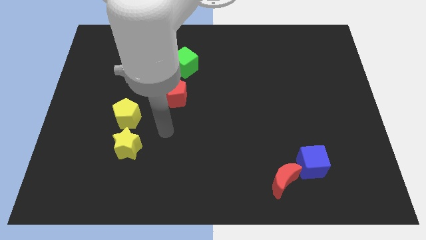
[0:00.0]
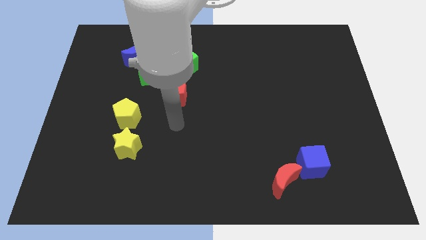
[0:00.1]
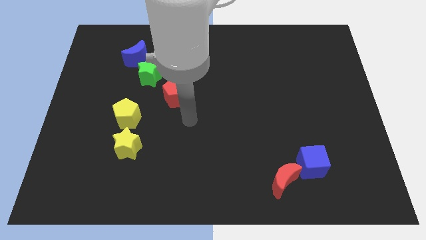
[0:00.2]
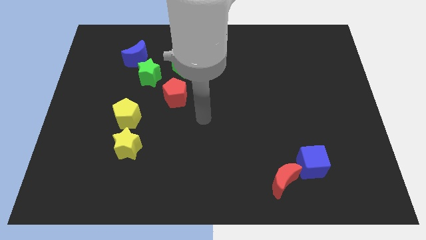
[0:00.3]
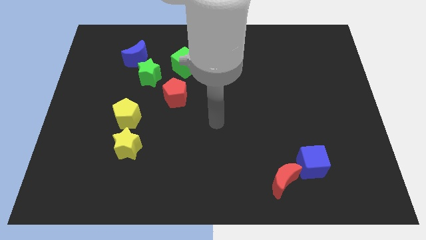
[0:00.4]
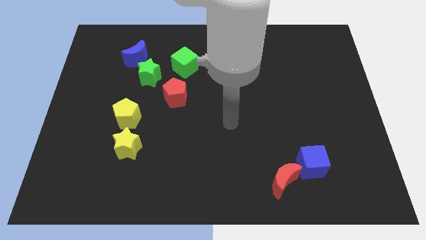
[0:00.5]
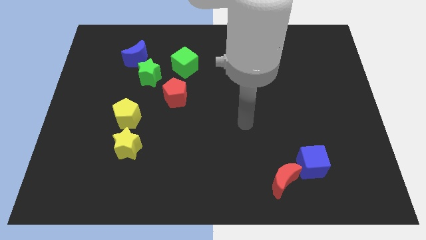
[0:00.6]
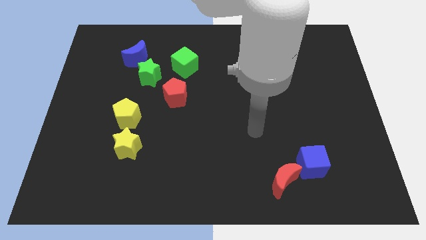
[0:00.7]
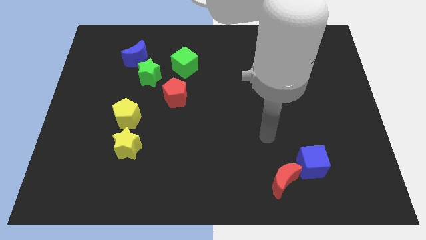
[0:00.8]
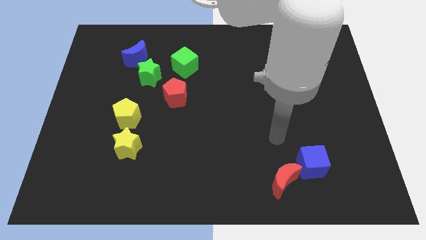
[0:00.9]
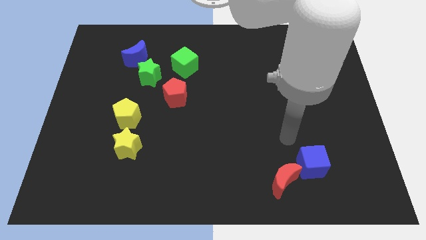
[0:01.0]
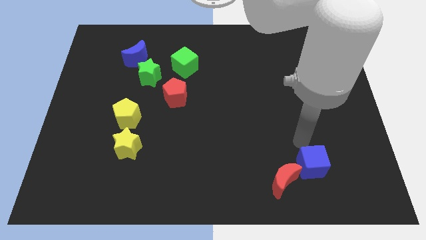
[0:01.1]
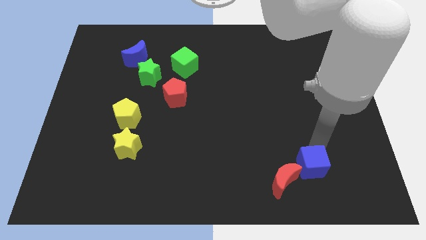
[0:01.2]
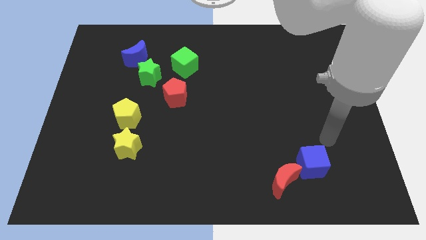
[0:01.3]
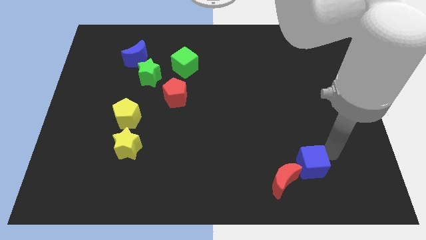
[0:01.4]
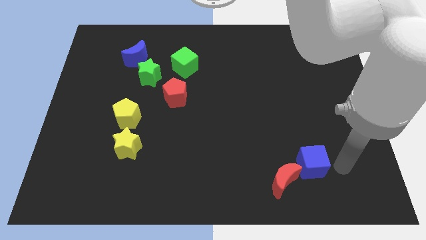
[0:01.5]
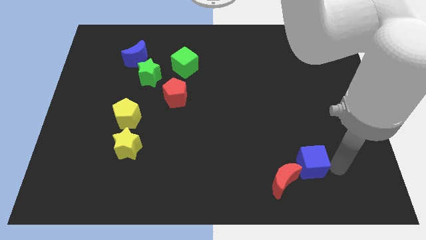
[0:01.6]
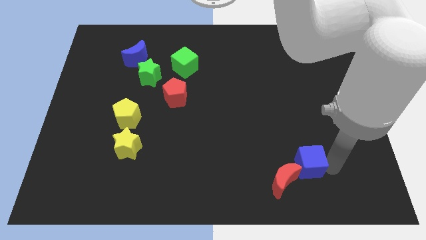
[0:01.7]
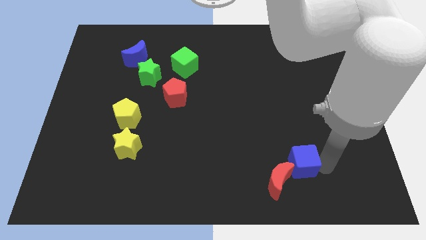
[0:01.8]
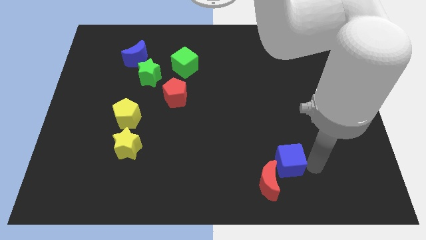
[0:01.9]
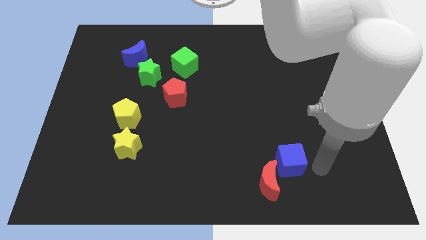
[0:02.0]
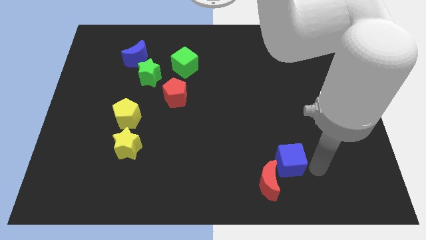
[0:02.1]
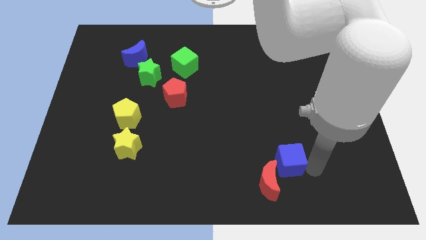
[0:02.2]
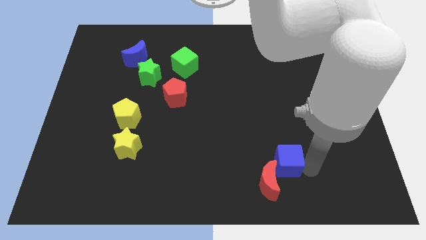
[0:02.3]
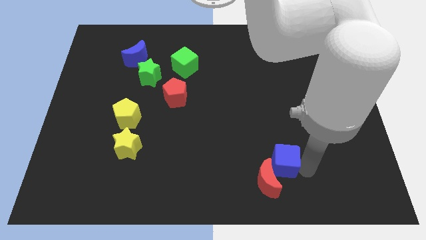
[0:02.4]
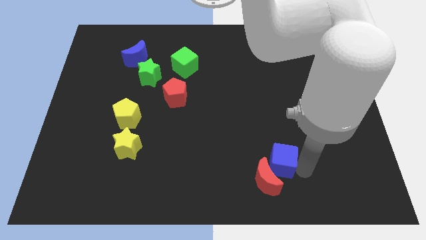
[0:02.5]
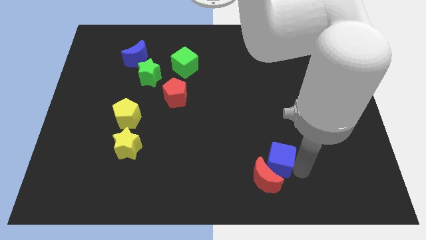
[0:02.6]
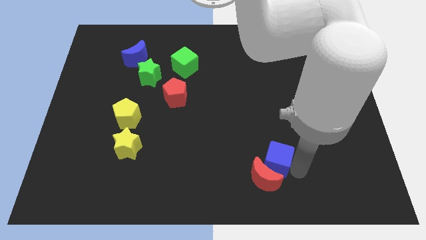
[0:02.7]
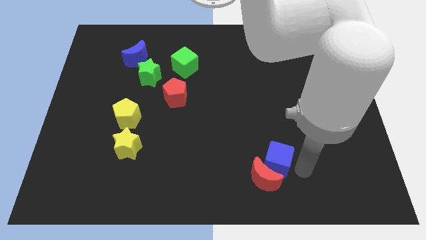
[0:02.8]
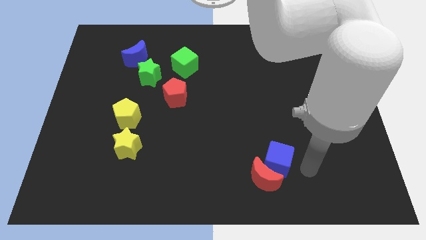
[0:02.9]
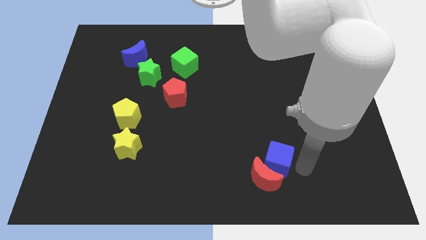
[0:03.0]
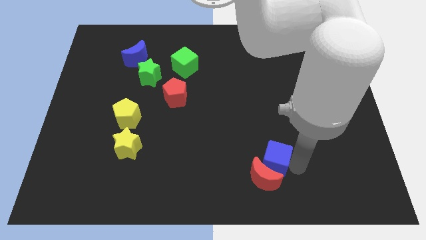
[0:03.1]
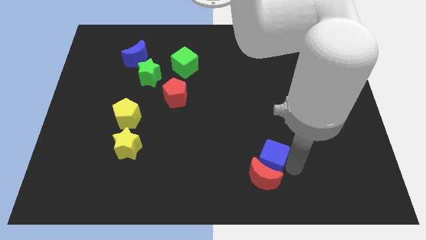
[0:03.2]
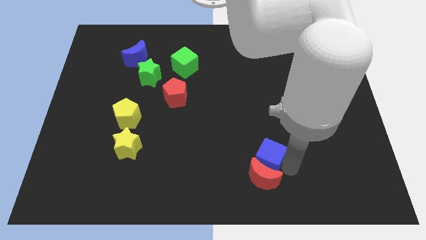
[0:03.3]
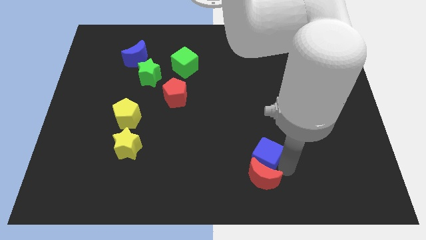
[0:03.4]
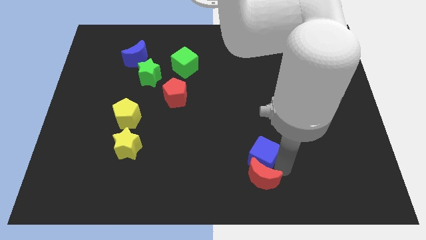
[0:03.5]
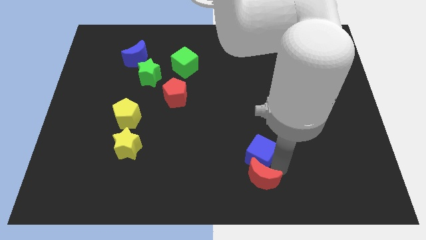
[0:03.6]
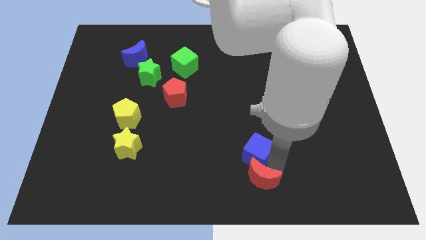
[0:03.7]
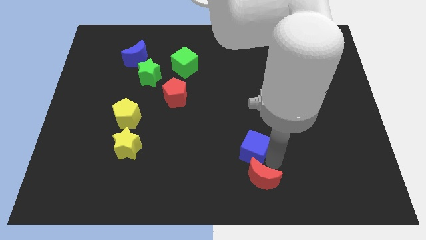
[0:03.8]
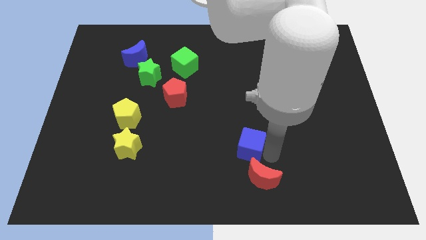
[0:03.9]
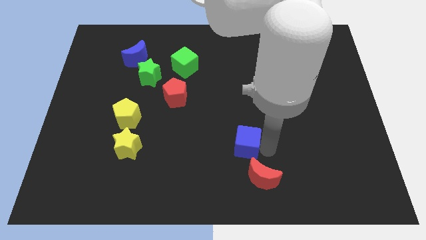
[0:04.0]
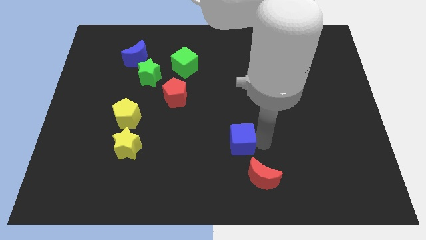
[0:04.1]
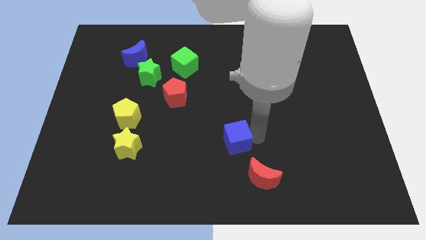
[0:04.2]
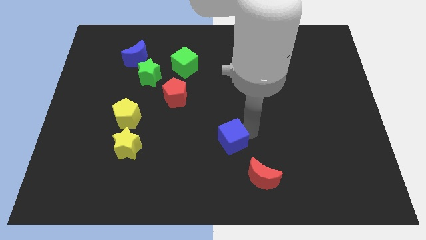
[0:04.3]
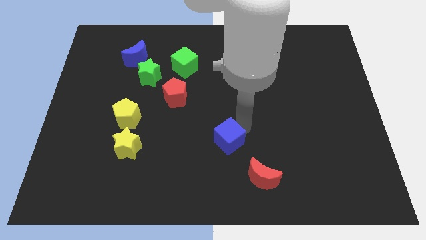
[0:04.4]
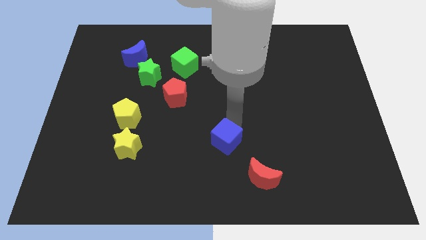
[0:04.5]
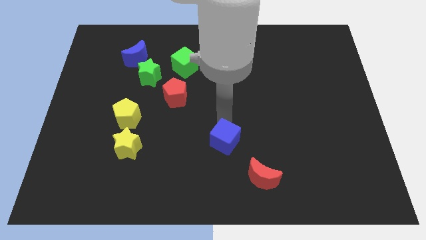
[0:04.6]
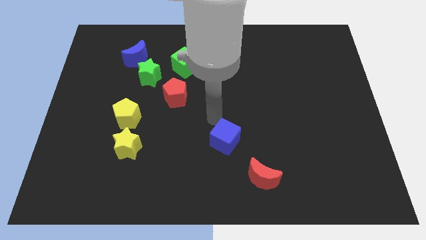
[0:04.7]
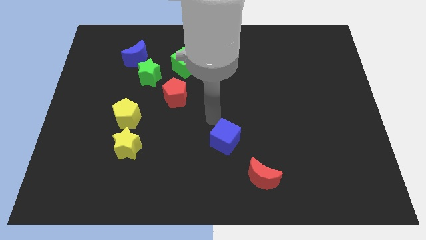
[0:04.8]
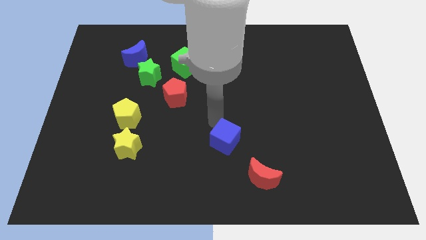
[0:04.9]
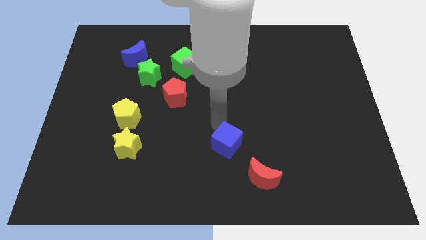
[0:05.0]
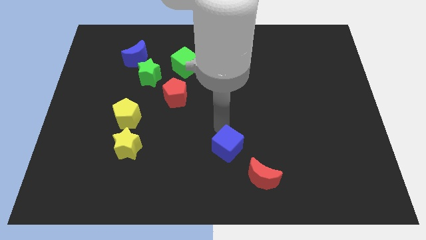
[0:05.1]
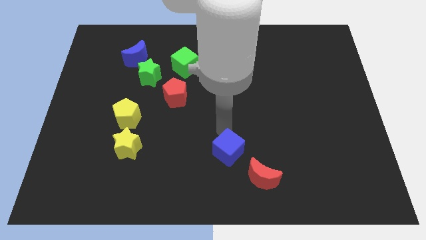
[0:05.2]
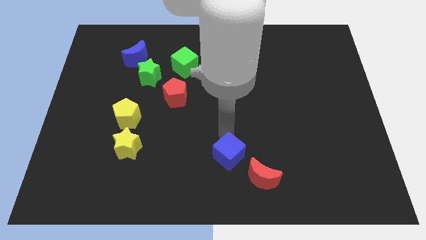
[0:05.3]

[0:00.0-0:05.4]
move the blue cube to the bottom

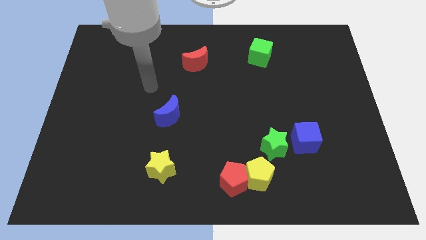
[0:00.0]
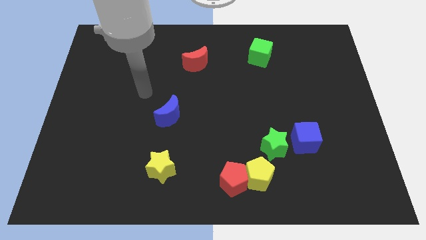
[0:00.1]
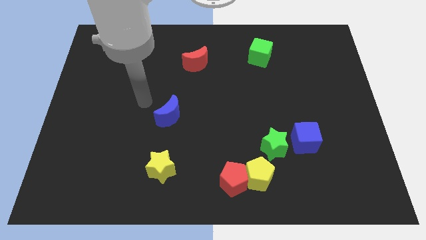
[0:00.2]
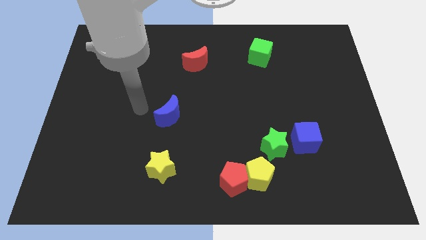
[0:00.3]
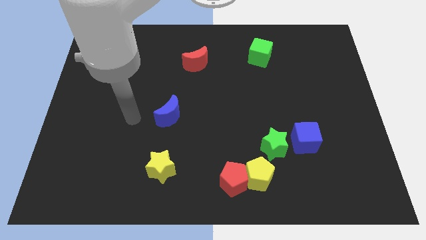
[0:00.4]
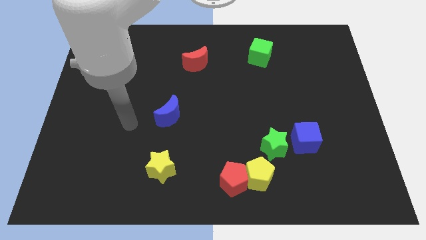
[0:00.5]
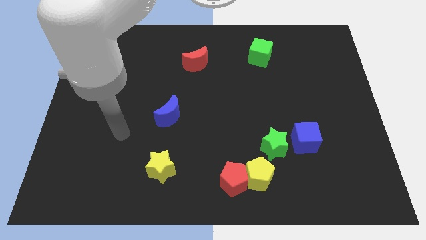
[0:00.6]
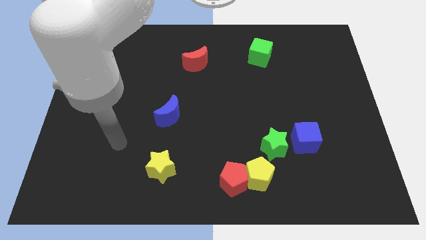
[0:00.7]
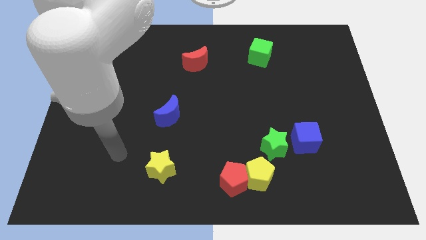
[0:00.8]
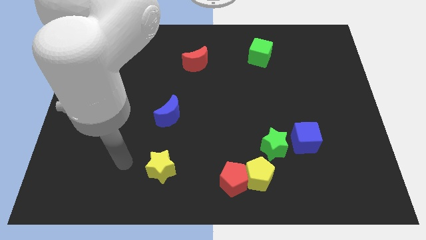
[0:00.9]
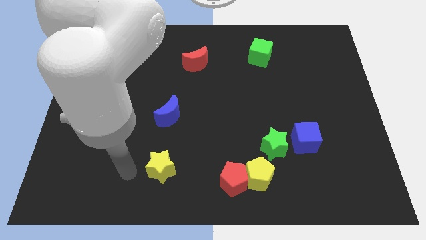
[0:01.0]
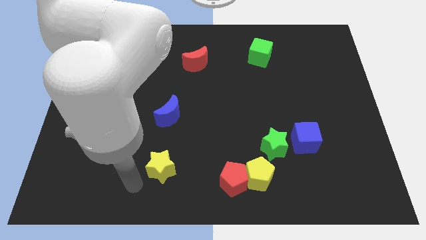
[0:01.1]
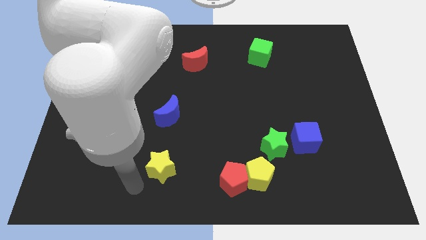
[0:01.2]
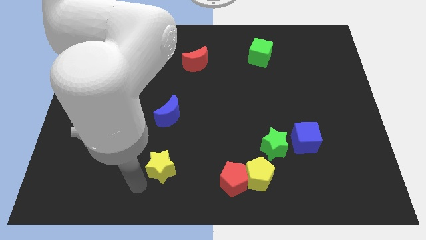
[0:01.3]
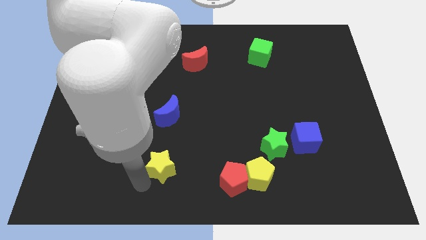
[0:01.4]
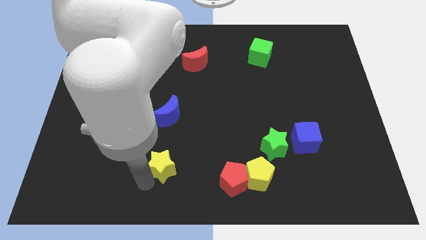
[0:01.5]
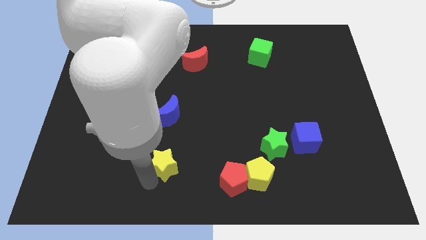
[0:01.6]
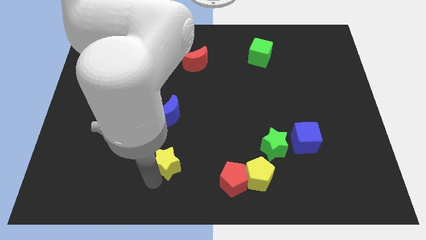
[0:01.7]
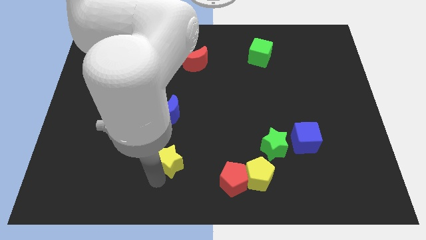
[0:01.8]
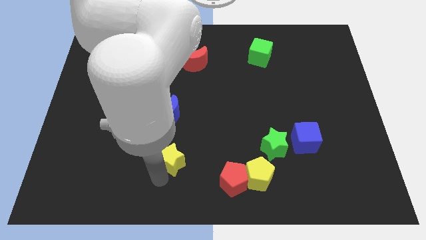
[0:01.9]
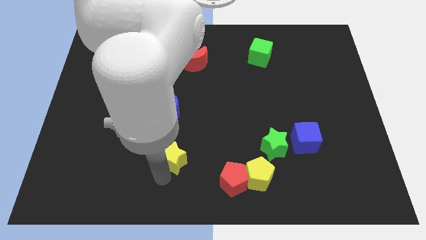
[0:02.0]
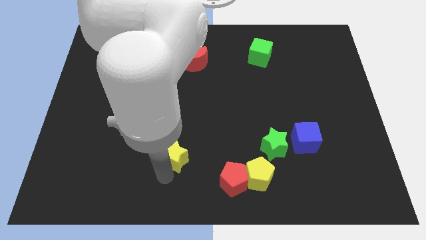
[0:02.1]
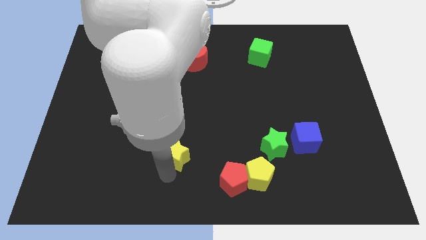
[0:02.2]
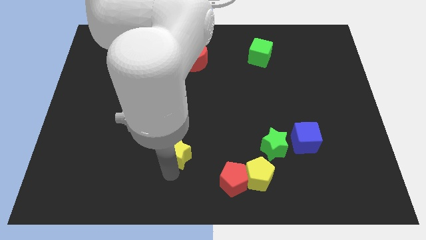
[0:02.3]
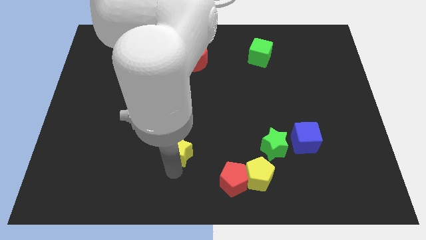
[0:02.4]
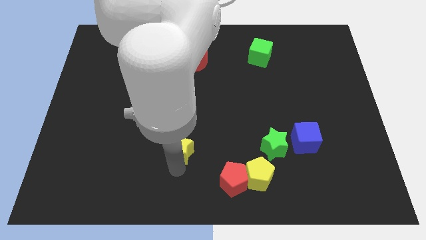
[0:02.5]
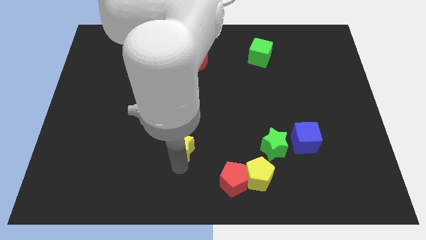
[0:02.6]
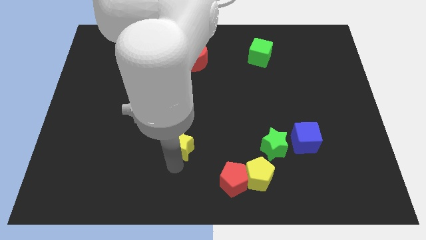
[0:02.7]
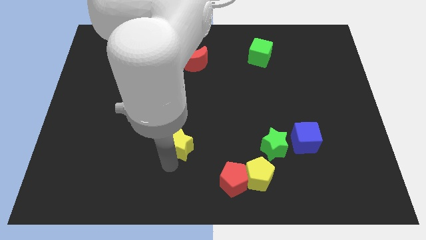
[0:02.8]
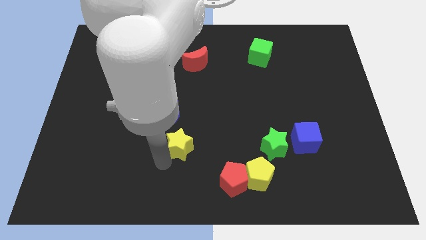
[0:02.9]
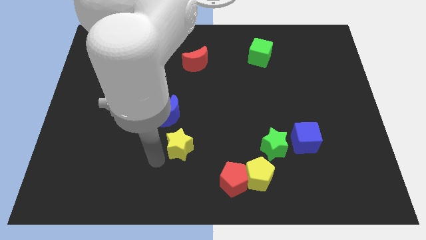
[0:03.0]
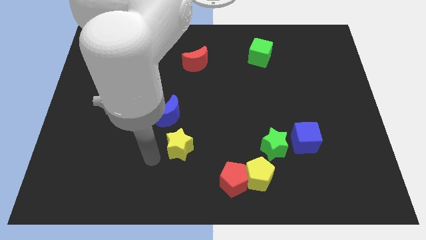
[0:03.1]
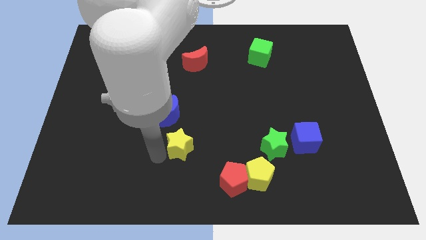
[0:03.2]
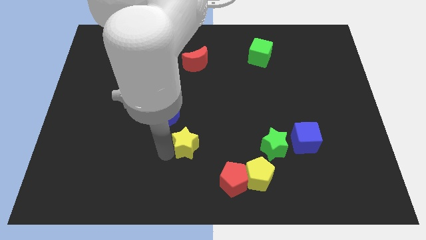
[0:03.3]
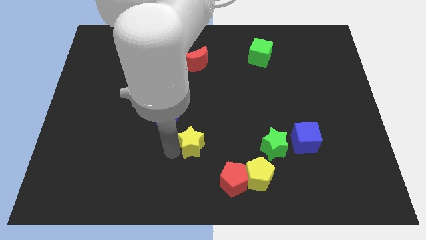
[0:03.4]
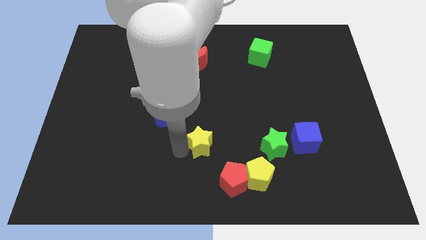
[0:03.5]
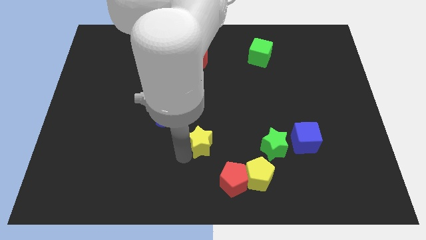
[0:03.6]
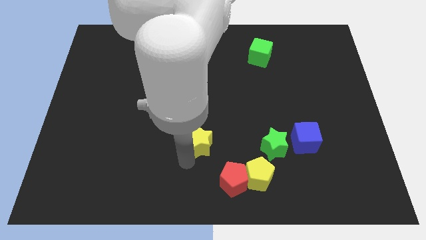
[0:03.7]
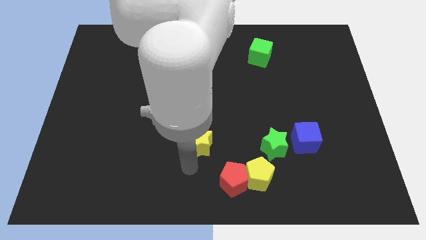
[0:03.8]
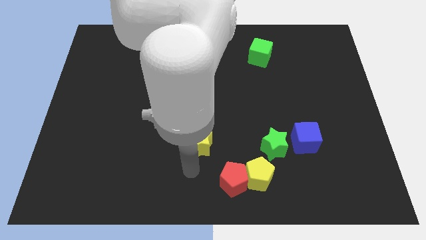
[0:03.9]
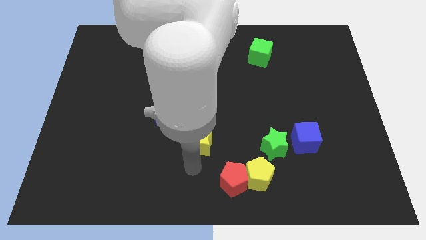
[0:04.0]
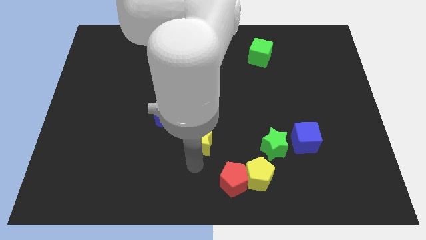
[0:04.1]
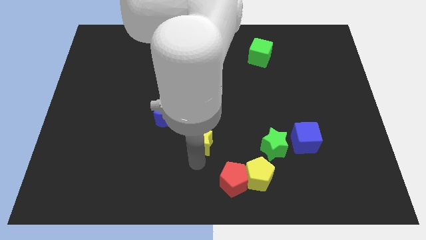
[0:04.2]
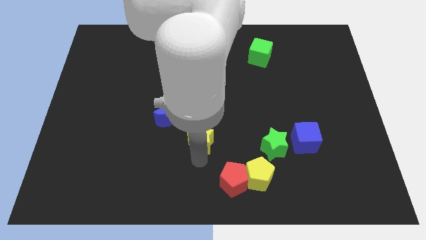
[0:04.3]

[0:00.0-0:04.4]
move the yellow star to the center of the board
